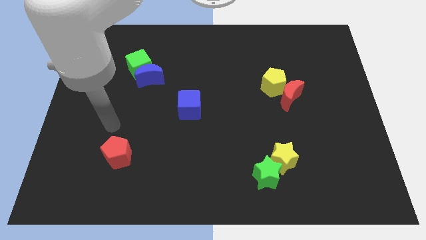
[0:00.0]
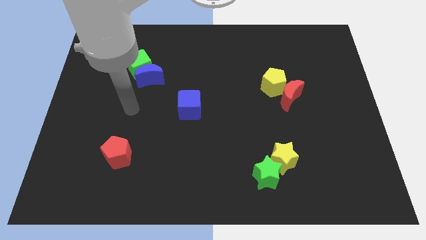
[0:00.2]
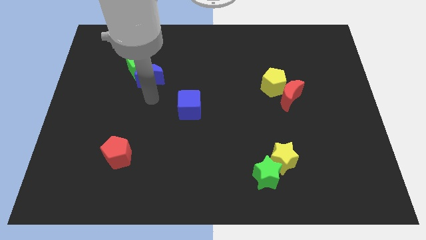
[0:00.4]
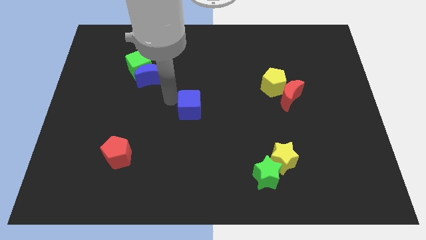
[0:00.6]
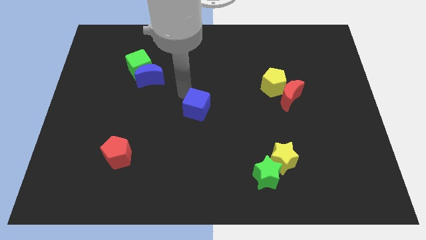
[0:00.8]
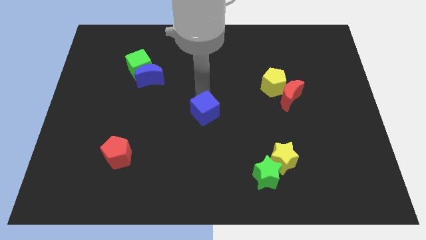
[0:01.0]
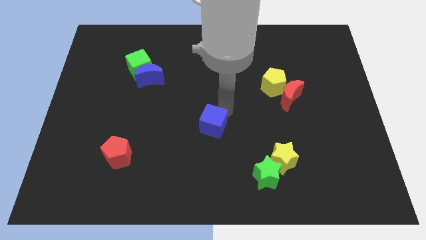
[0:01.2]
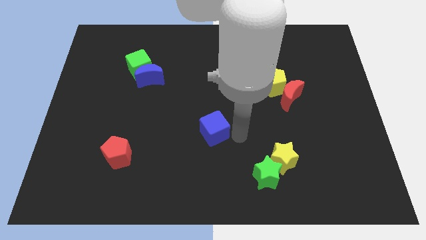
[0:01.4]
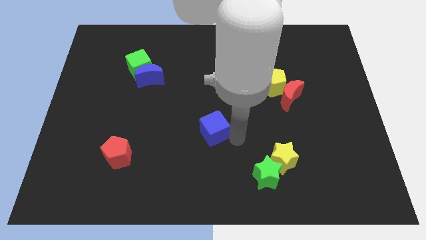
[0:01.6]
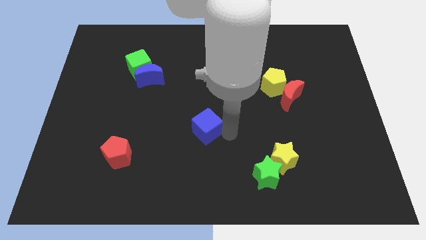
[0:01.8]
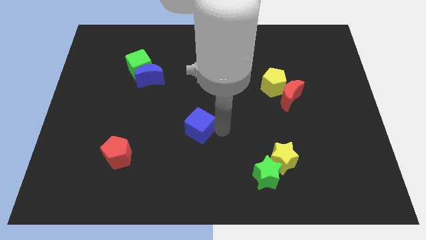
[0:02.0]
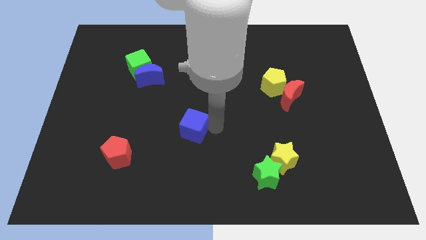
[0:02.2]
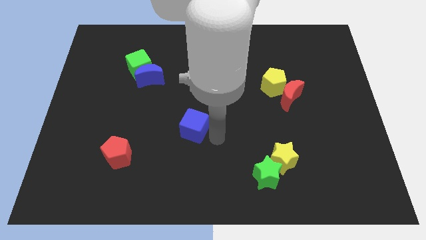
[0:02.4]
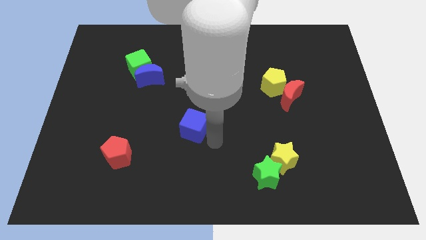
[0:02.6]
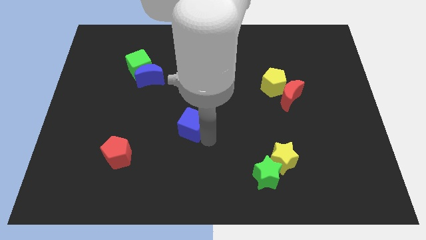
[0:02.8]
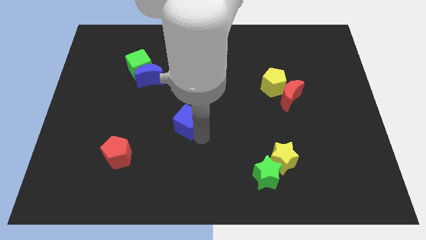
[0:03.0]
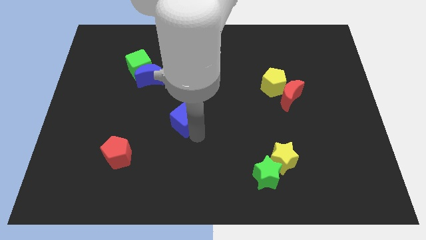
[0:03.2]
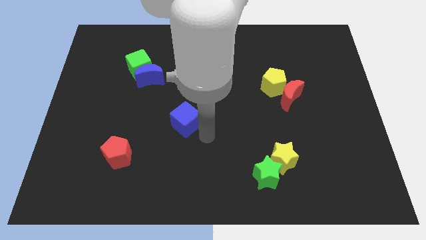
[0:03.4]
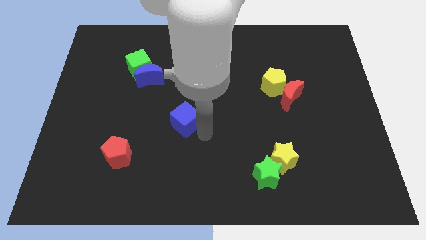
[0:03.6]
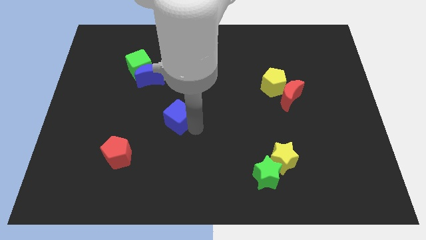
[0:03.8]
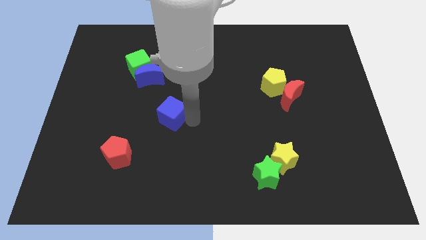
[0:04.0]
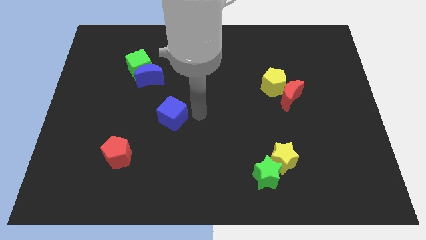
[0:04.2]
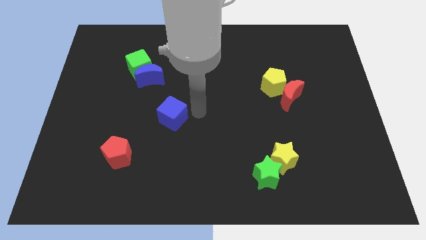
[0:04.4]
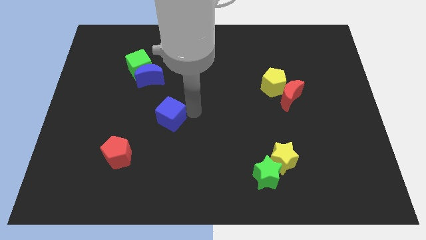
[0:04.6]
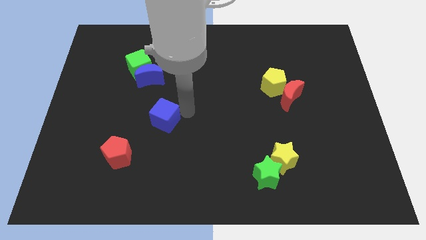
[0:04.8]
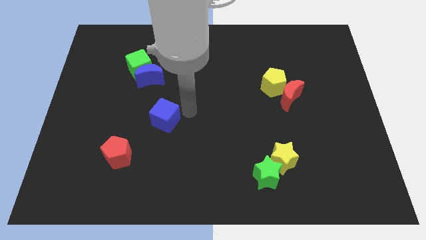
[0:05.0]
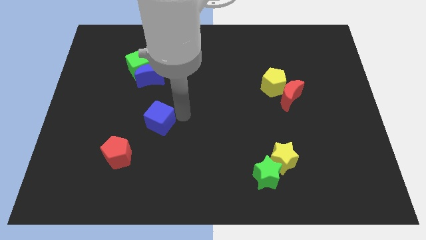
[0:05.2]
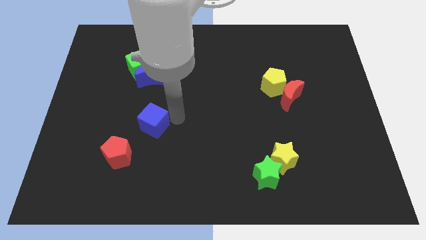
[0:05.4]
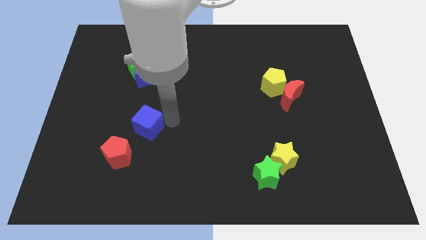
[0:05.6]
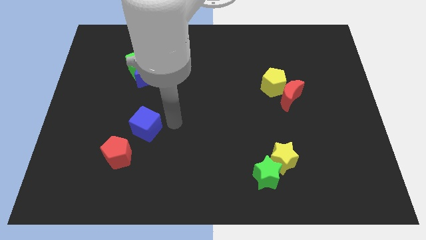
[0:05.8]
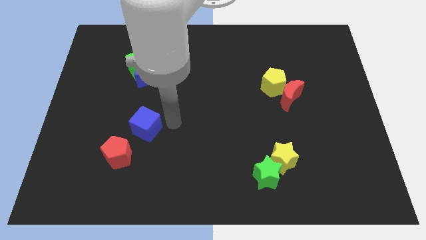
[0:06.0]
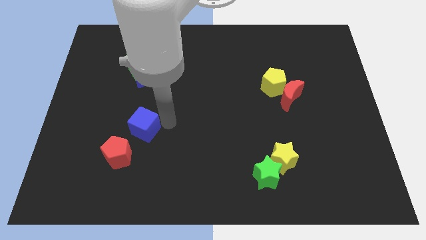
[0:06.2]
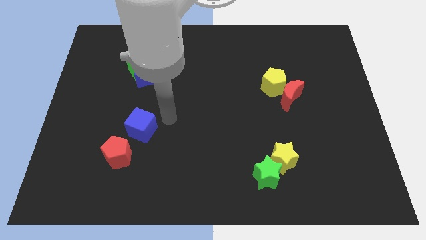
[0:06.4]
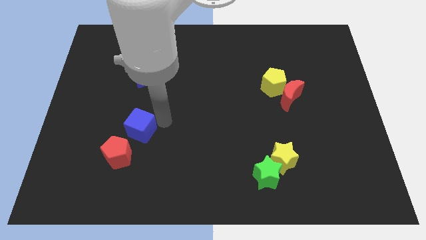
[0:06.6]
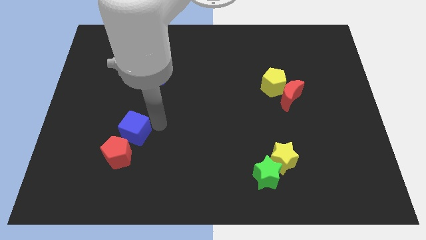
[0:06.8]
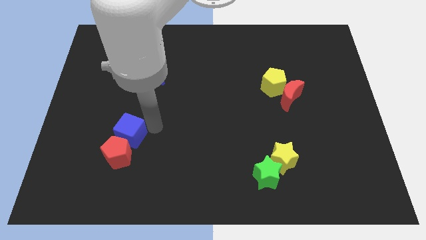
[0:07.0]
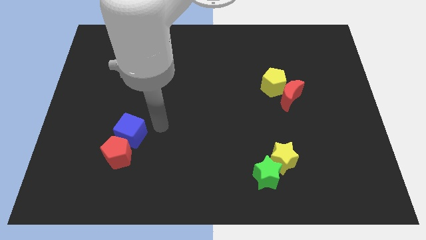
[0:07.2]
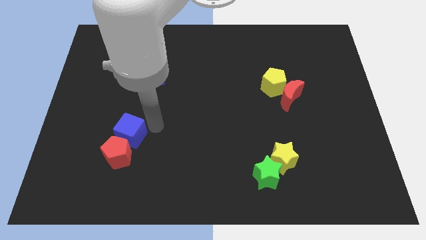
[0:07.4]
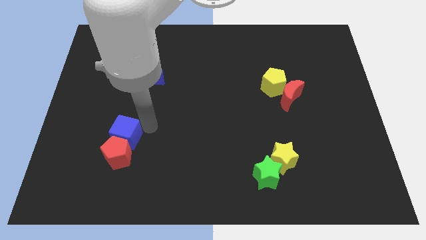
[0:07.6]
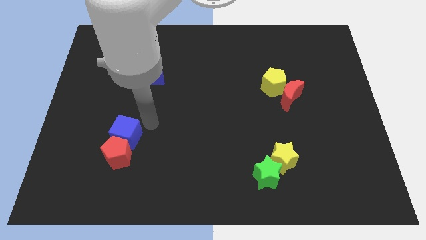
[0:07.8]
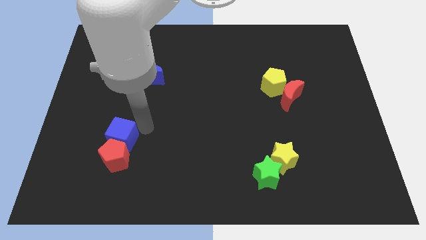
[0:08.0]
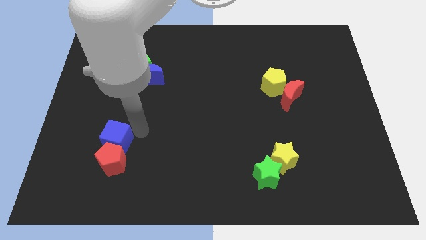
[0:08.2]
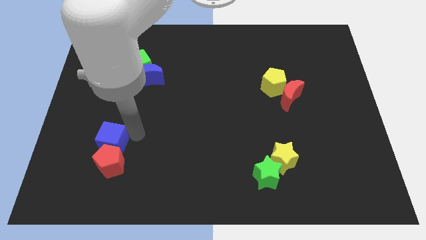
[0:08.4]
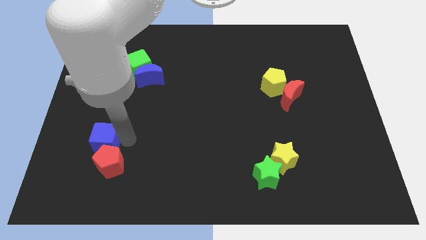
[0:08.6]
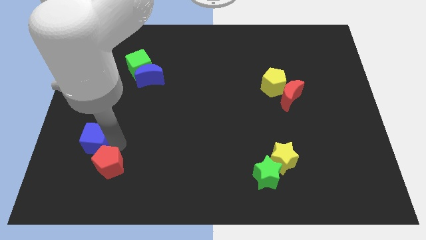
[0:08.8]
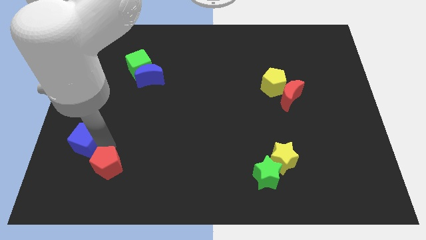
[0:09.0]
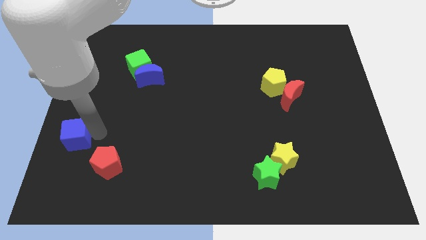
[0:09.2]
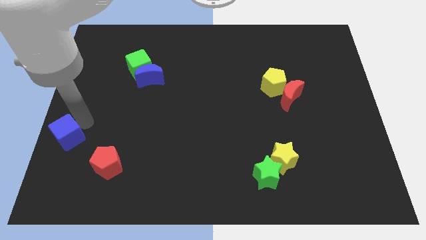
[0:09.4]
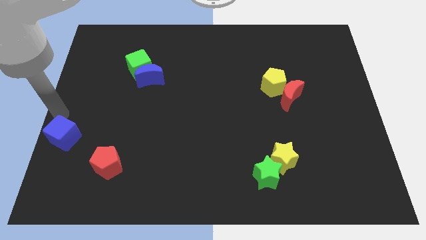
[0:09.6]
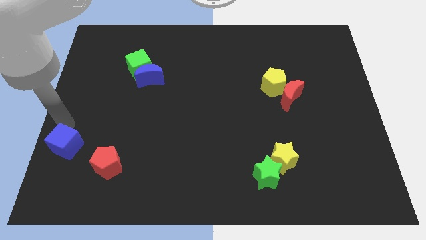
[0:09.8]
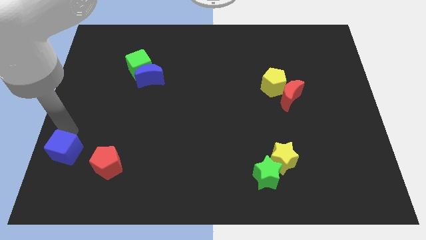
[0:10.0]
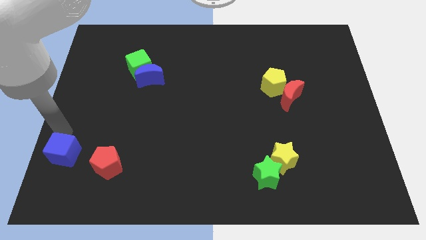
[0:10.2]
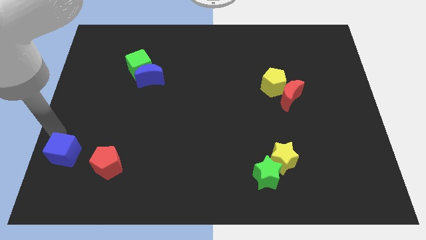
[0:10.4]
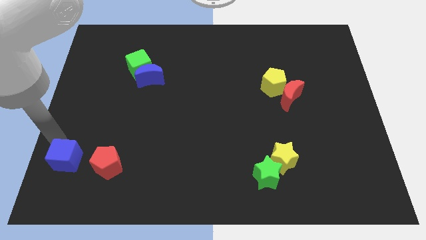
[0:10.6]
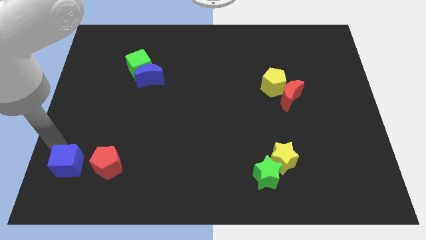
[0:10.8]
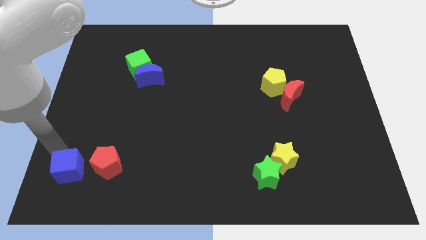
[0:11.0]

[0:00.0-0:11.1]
move the blue cube to the bottom left side of the red pentagon

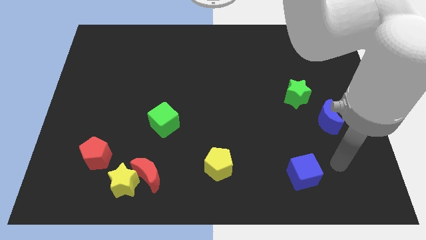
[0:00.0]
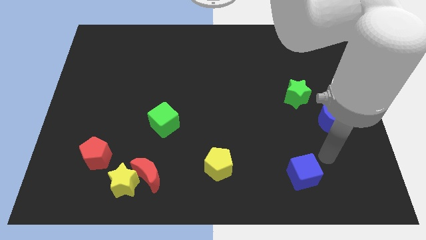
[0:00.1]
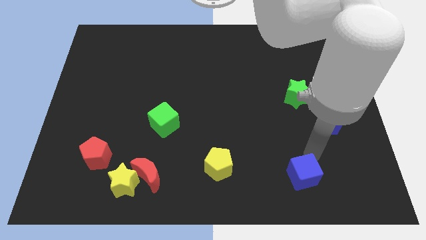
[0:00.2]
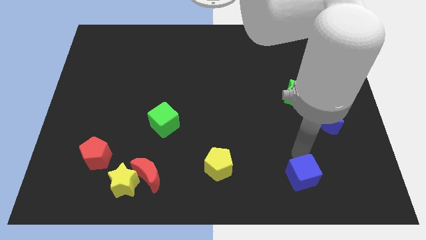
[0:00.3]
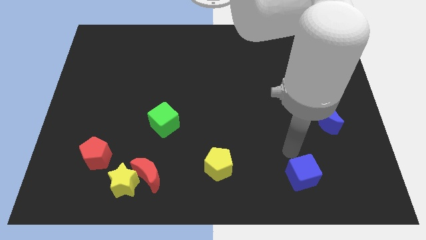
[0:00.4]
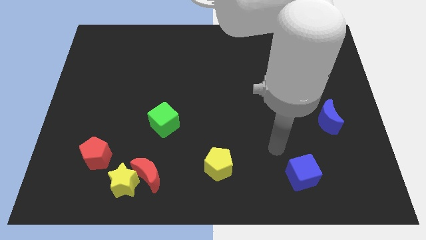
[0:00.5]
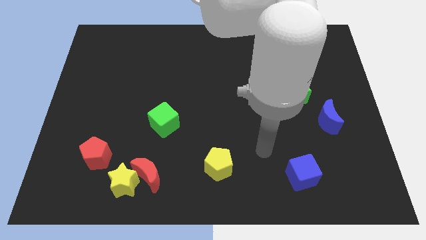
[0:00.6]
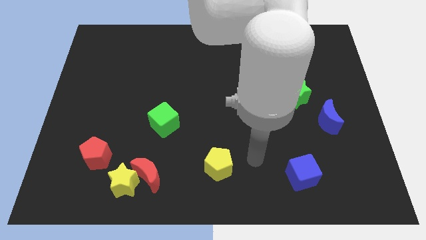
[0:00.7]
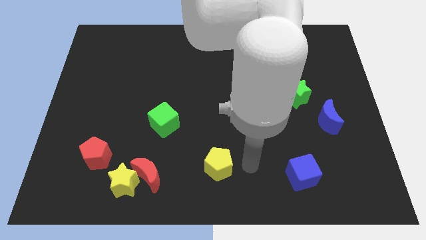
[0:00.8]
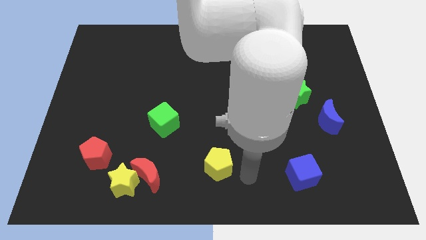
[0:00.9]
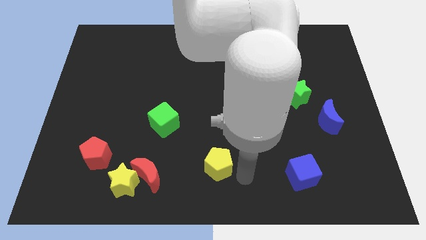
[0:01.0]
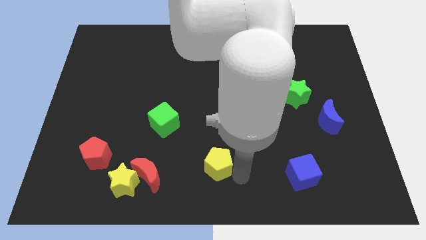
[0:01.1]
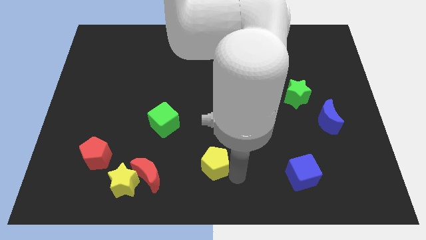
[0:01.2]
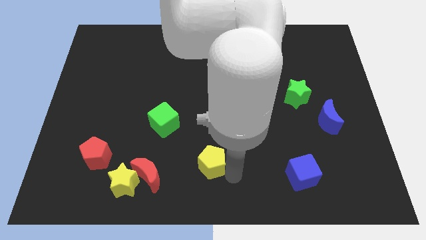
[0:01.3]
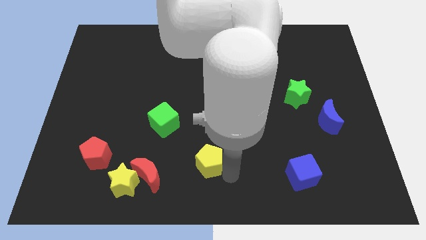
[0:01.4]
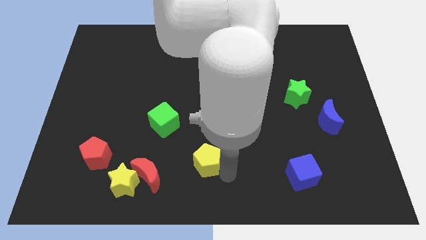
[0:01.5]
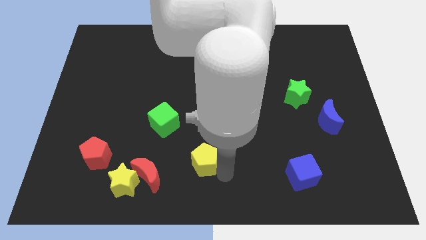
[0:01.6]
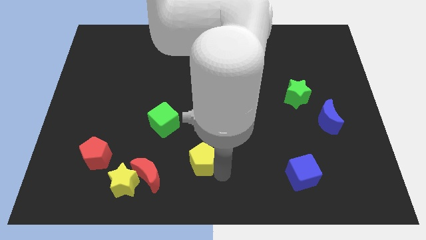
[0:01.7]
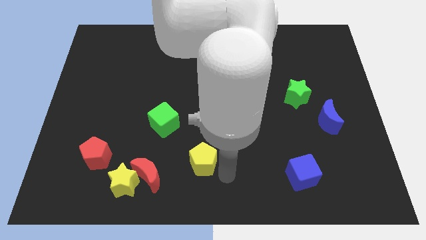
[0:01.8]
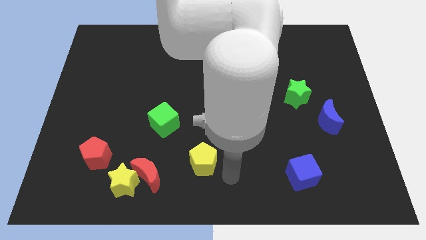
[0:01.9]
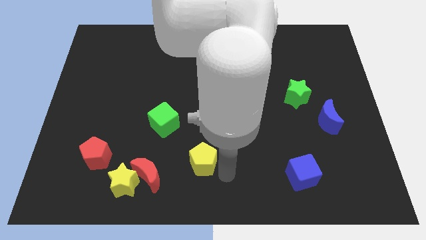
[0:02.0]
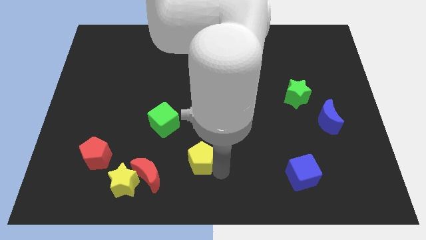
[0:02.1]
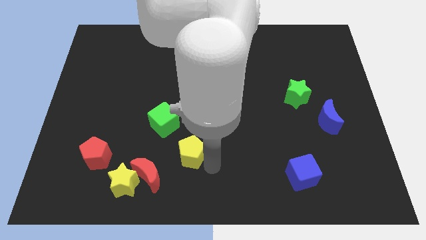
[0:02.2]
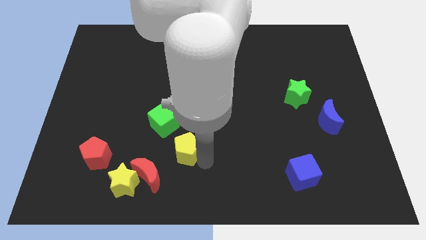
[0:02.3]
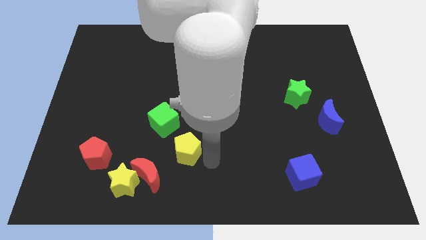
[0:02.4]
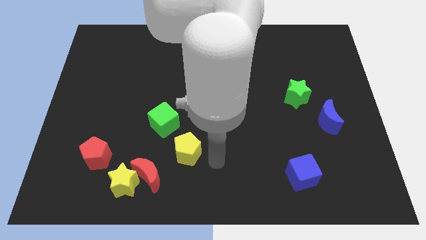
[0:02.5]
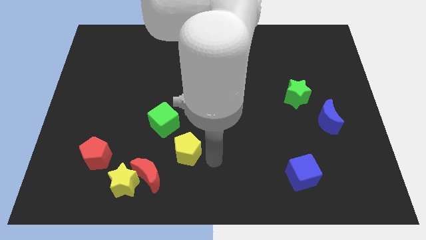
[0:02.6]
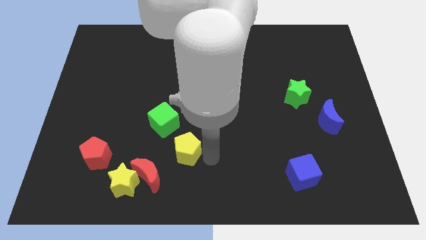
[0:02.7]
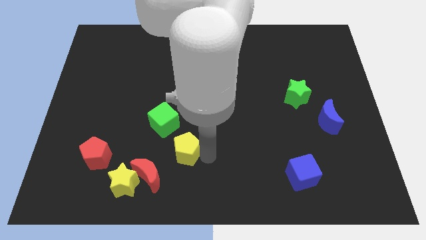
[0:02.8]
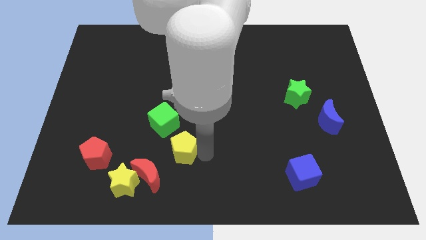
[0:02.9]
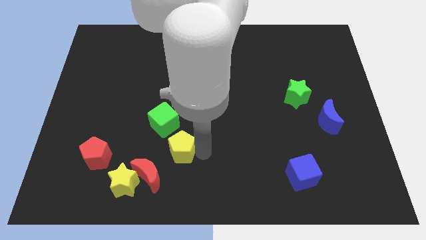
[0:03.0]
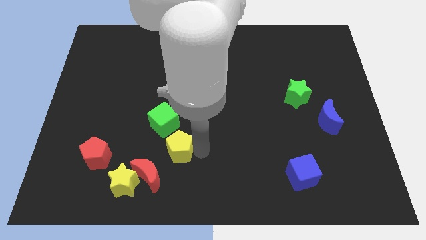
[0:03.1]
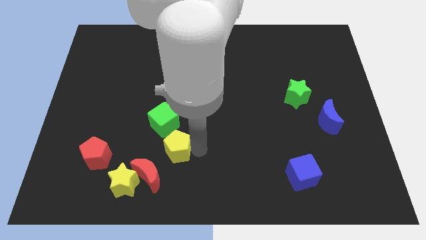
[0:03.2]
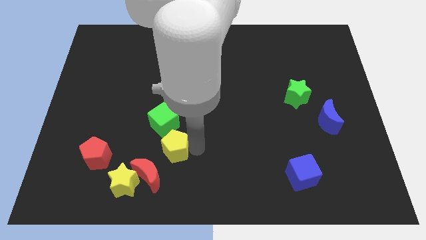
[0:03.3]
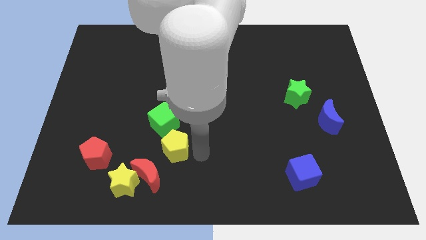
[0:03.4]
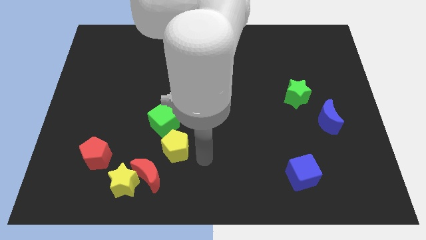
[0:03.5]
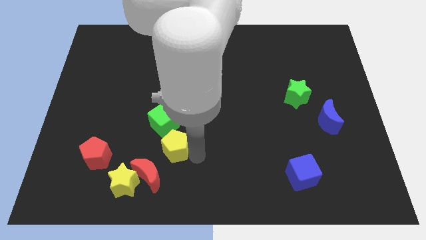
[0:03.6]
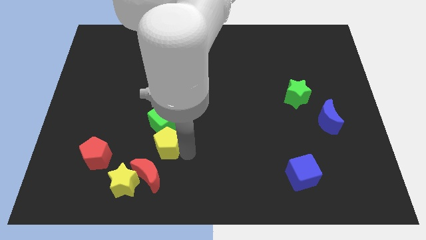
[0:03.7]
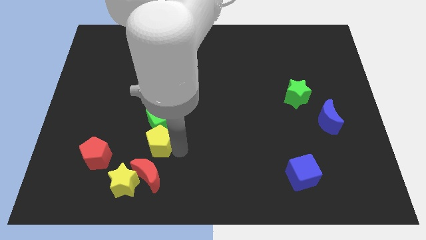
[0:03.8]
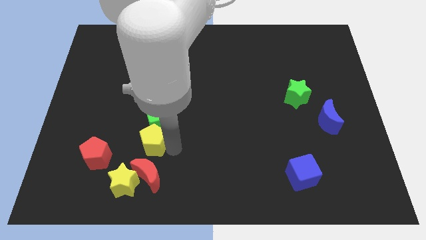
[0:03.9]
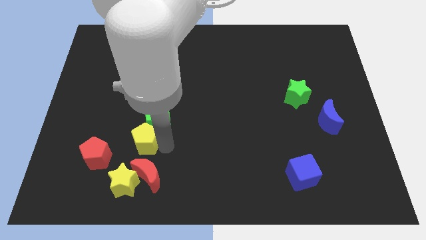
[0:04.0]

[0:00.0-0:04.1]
move the yellow pentagon diagonally up and to the right of the red pentagon
